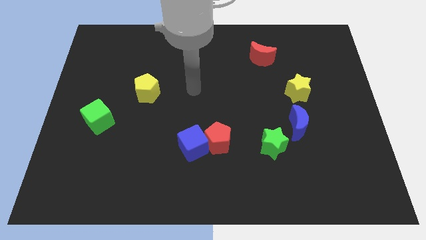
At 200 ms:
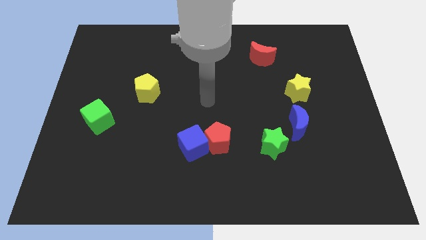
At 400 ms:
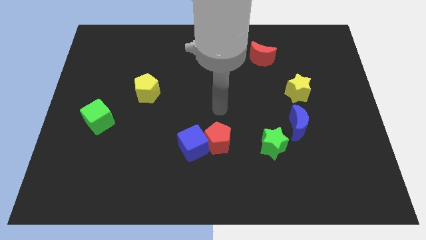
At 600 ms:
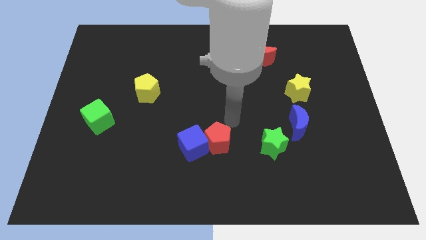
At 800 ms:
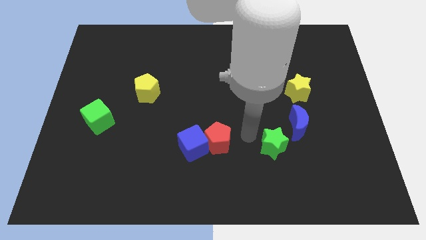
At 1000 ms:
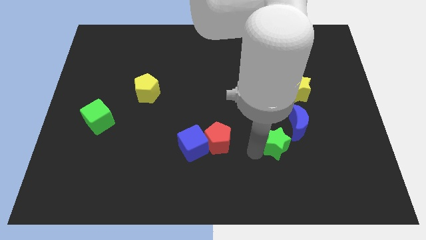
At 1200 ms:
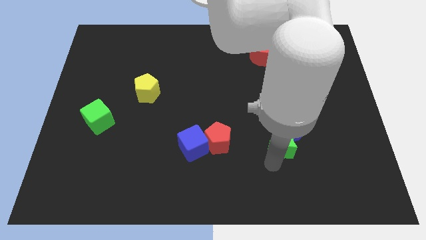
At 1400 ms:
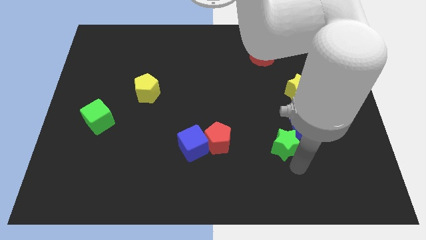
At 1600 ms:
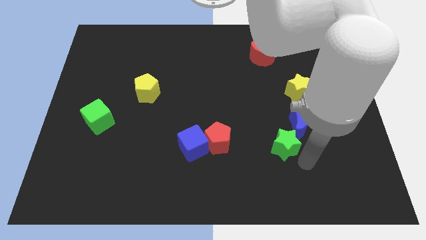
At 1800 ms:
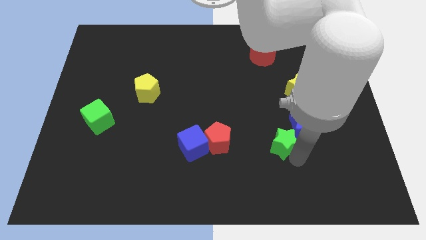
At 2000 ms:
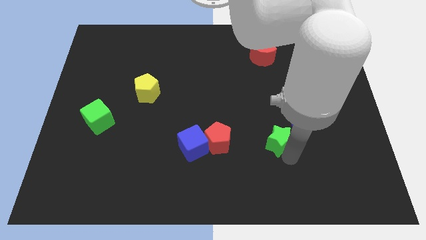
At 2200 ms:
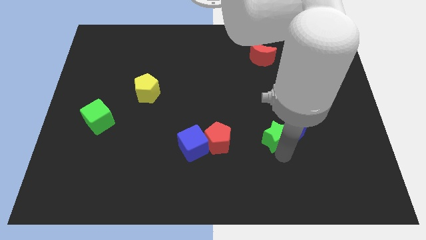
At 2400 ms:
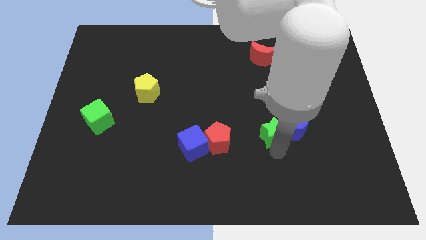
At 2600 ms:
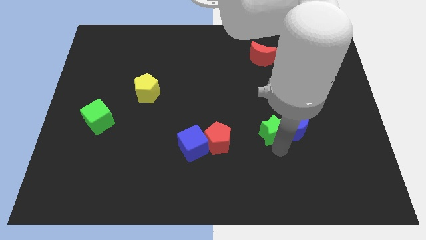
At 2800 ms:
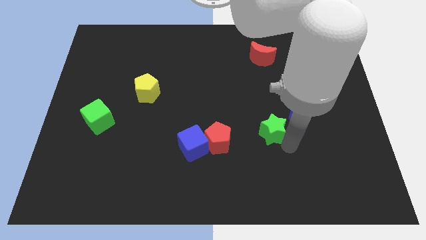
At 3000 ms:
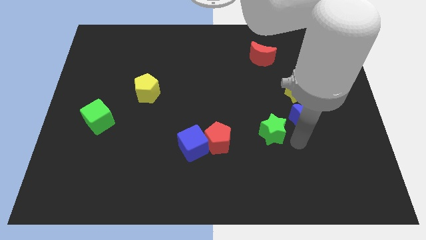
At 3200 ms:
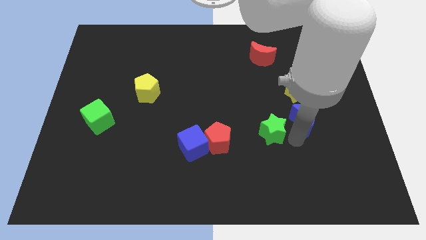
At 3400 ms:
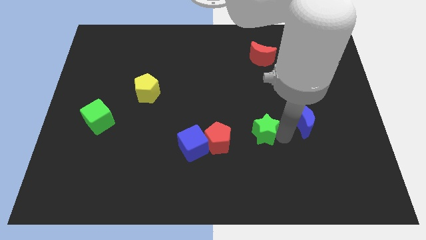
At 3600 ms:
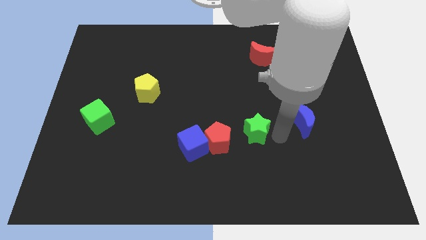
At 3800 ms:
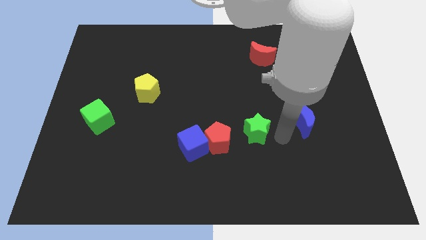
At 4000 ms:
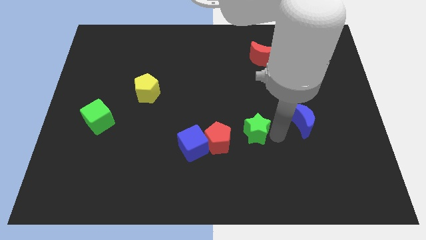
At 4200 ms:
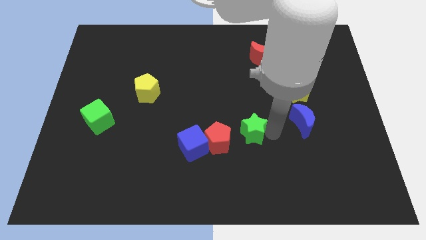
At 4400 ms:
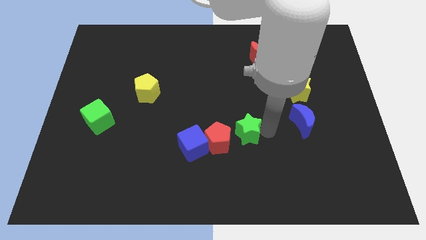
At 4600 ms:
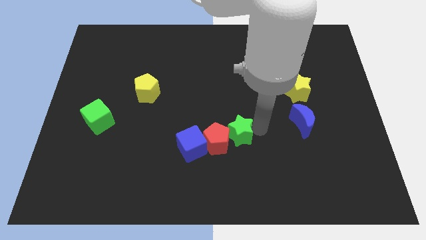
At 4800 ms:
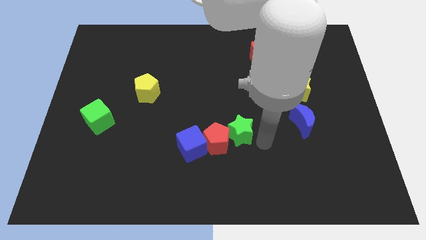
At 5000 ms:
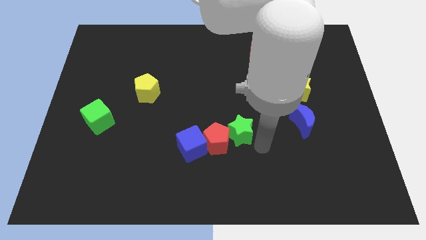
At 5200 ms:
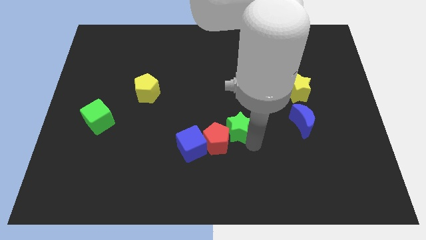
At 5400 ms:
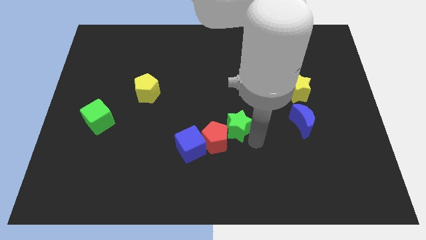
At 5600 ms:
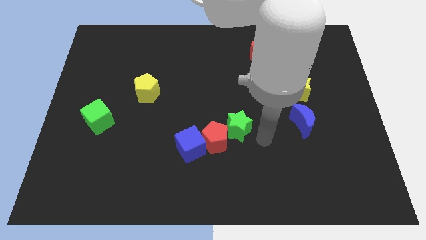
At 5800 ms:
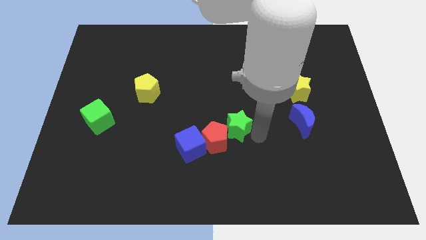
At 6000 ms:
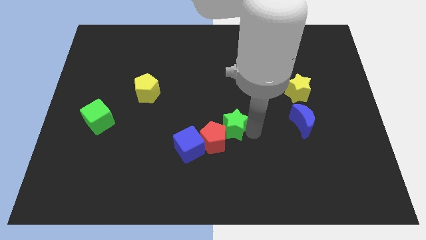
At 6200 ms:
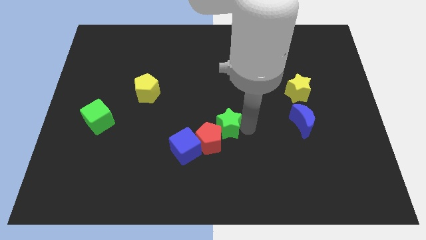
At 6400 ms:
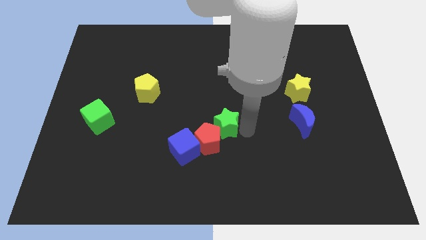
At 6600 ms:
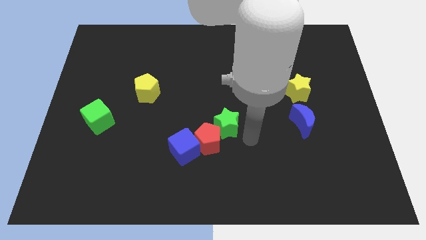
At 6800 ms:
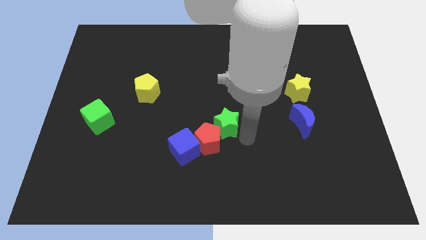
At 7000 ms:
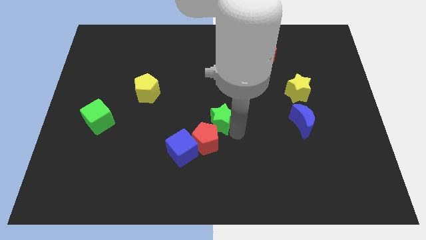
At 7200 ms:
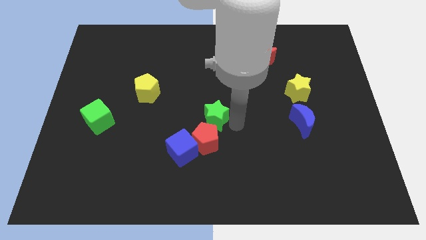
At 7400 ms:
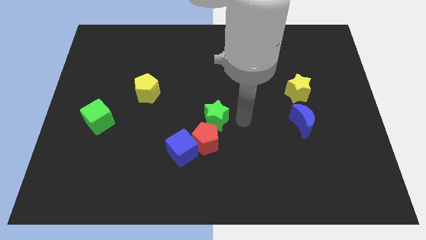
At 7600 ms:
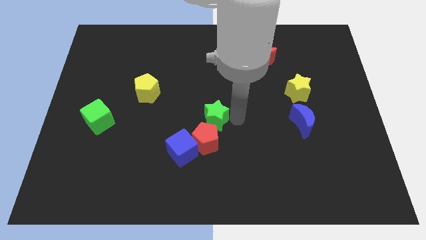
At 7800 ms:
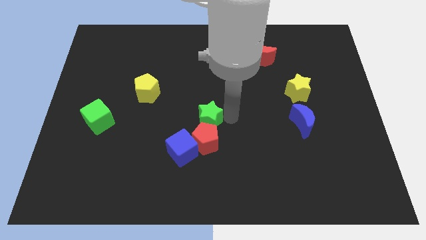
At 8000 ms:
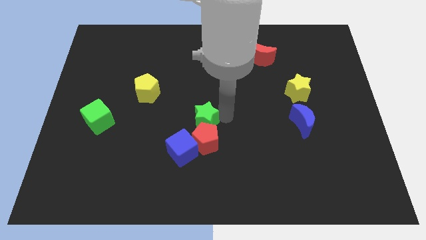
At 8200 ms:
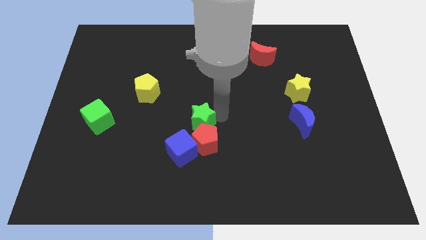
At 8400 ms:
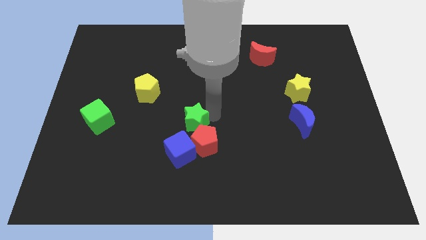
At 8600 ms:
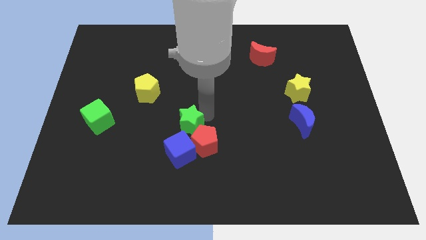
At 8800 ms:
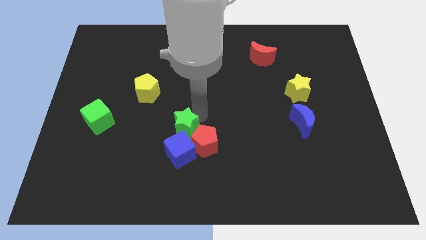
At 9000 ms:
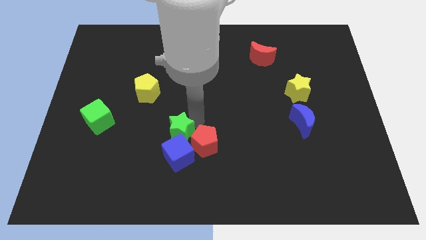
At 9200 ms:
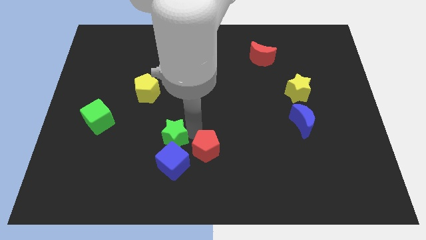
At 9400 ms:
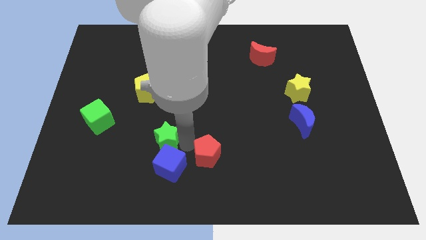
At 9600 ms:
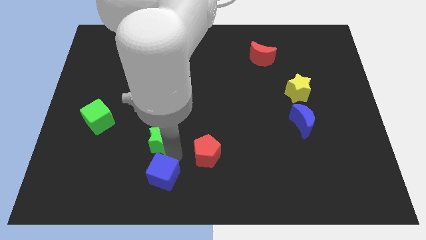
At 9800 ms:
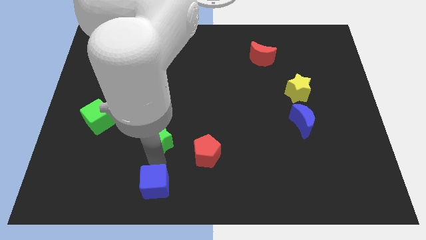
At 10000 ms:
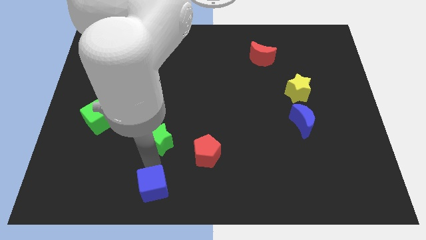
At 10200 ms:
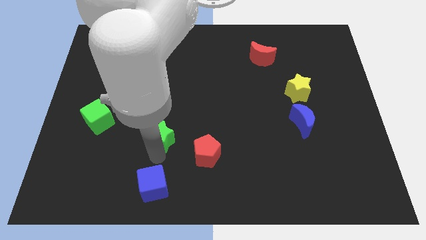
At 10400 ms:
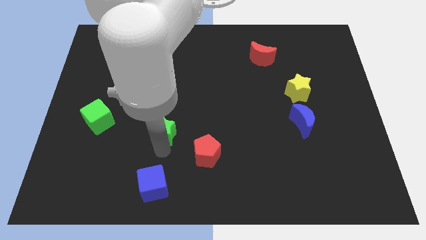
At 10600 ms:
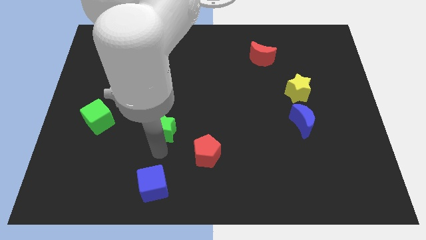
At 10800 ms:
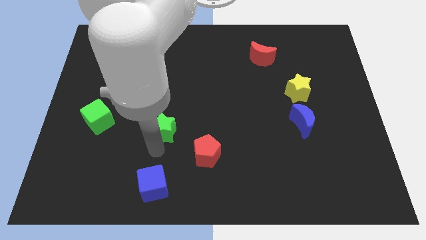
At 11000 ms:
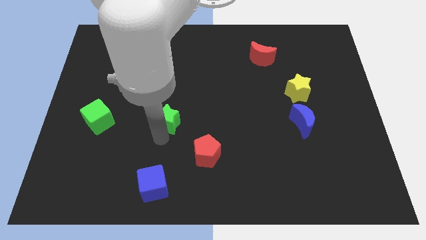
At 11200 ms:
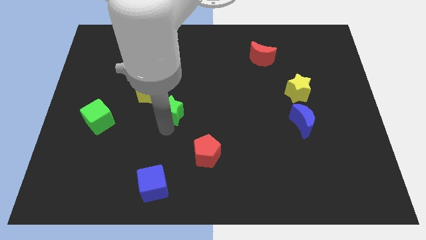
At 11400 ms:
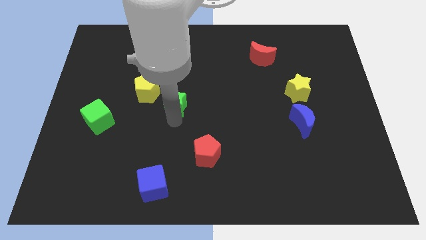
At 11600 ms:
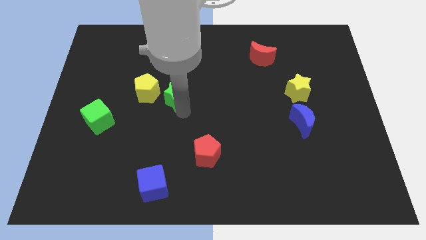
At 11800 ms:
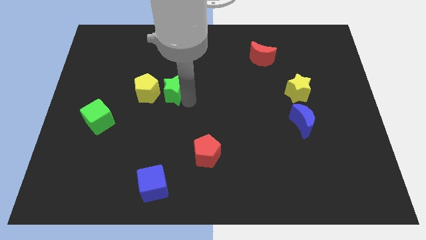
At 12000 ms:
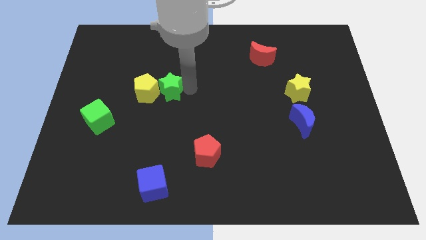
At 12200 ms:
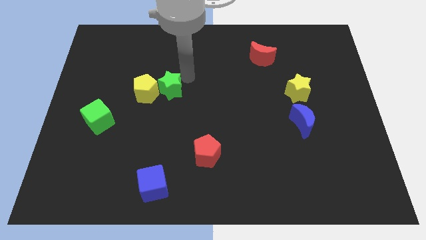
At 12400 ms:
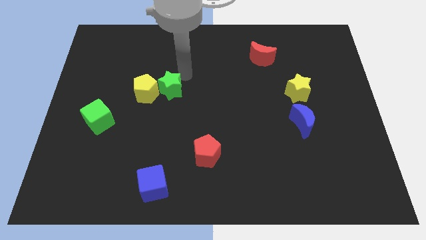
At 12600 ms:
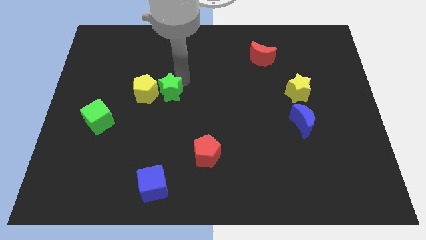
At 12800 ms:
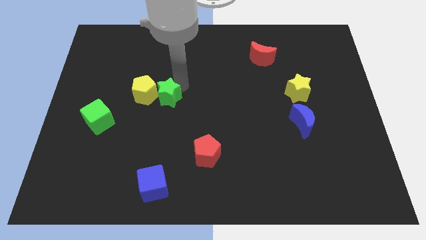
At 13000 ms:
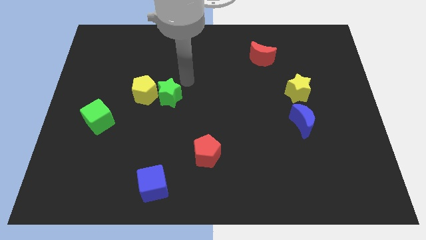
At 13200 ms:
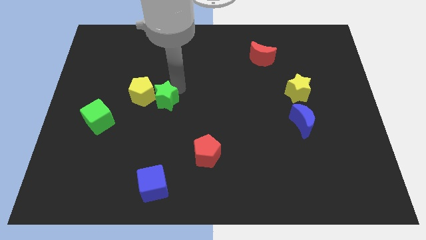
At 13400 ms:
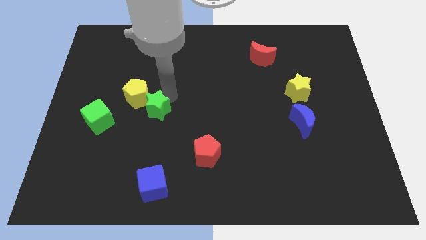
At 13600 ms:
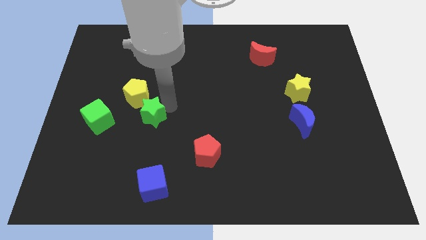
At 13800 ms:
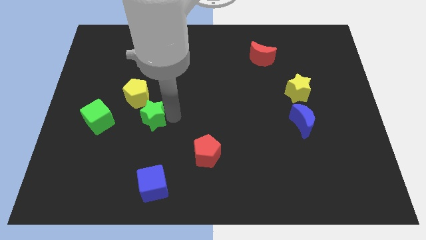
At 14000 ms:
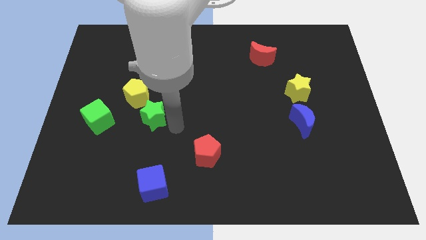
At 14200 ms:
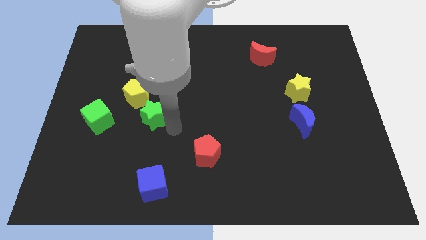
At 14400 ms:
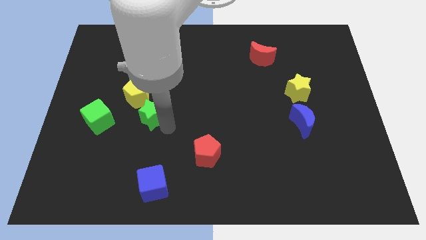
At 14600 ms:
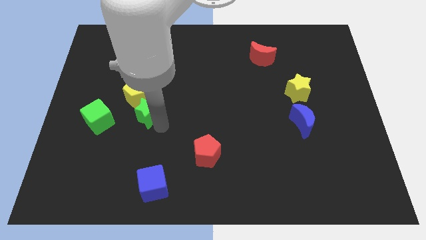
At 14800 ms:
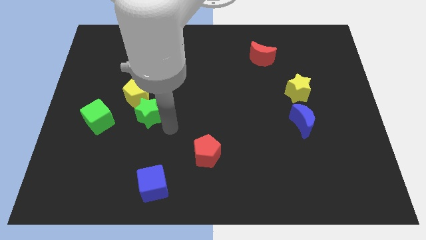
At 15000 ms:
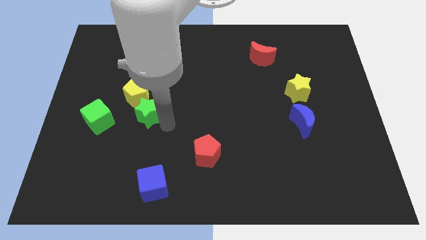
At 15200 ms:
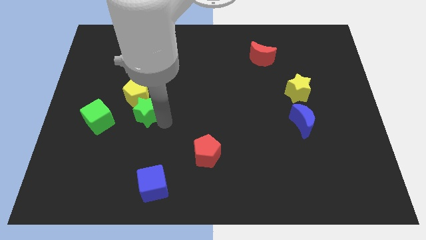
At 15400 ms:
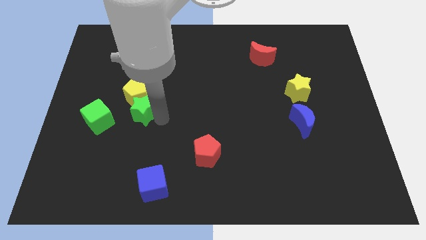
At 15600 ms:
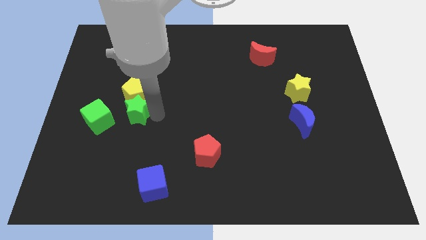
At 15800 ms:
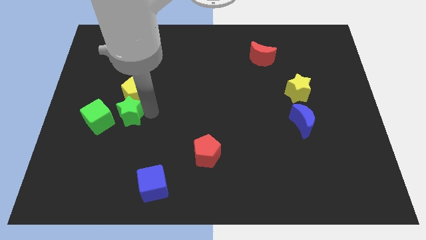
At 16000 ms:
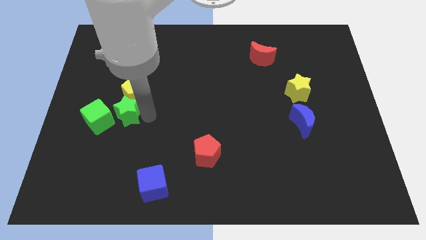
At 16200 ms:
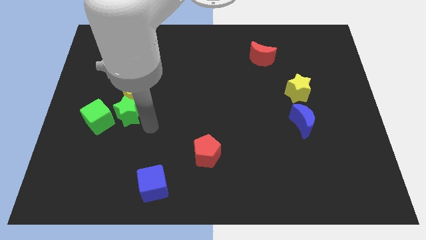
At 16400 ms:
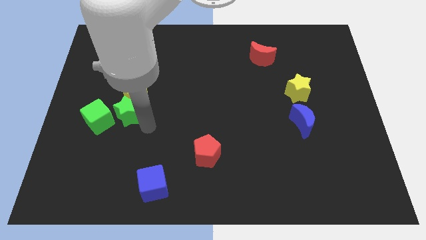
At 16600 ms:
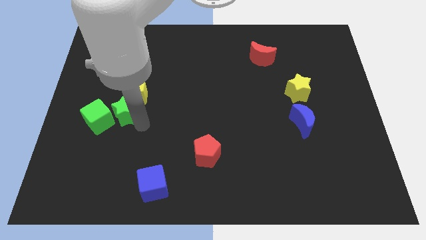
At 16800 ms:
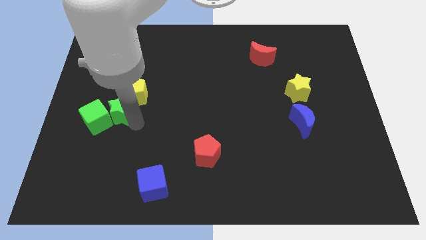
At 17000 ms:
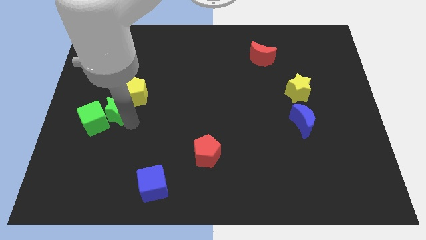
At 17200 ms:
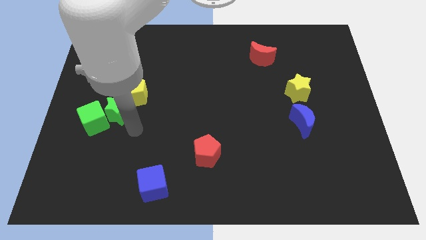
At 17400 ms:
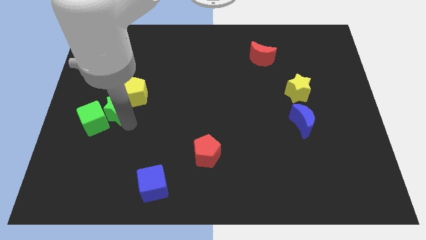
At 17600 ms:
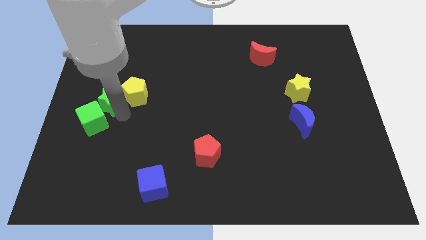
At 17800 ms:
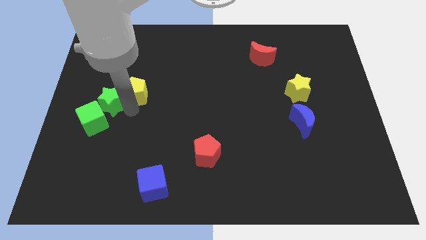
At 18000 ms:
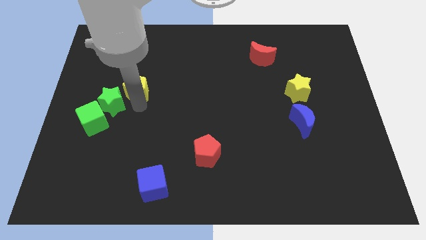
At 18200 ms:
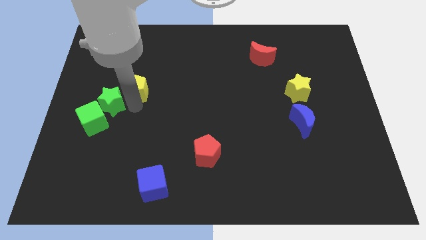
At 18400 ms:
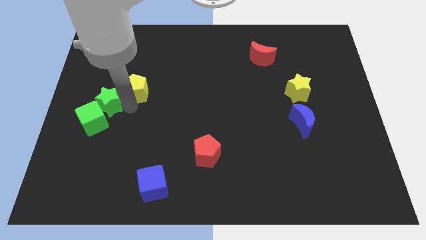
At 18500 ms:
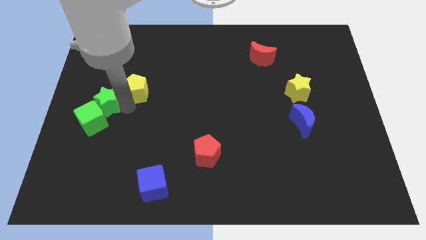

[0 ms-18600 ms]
put the green star to the left side
